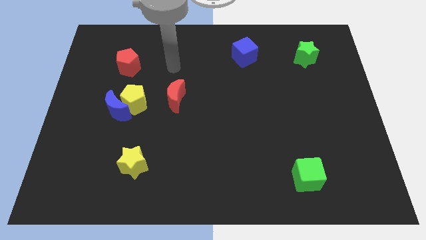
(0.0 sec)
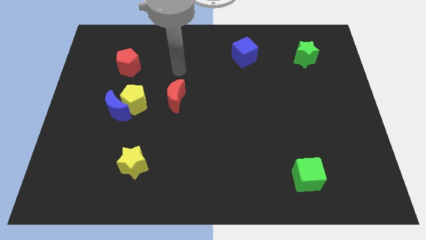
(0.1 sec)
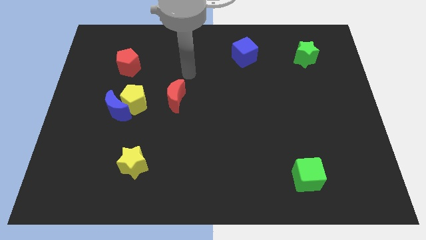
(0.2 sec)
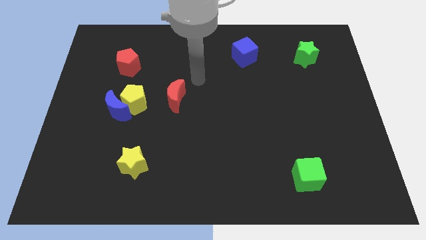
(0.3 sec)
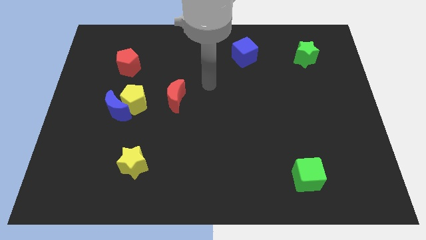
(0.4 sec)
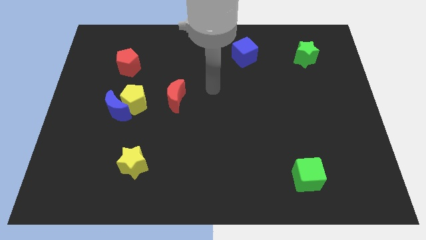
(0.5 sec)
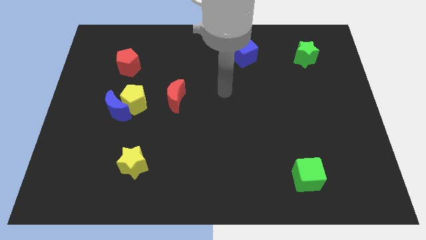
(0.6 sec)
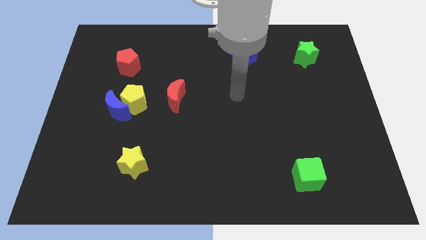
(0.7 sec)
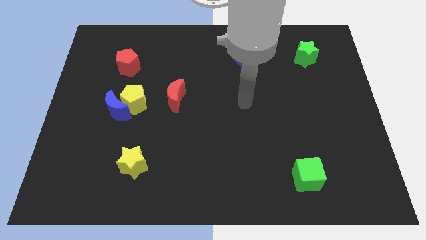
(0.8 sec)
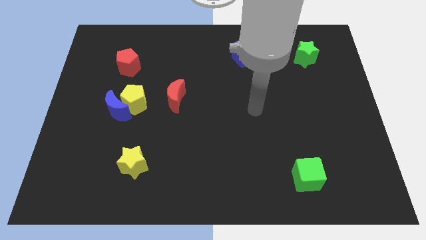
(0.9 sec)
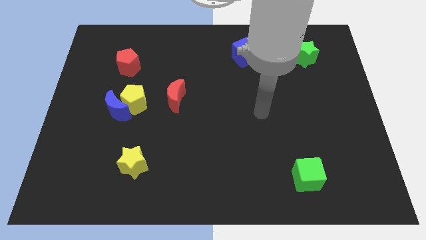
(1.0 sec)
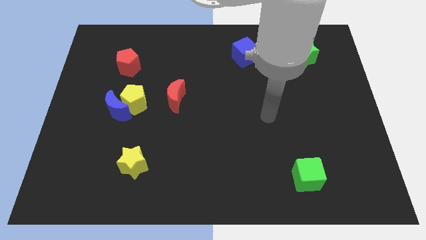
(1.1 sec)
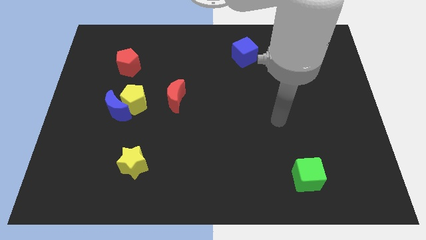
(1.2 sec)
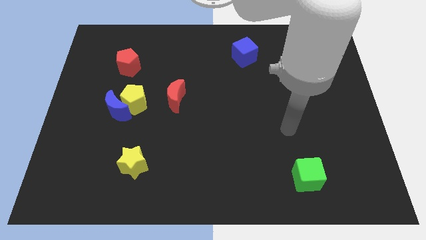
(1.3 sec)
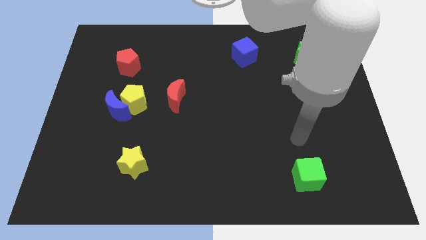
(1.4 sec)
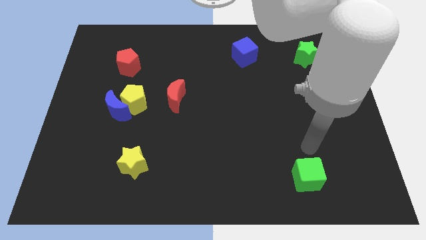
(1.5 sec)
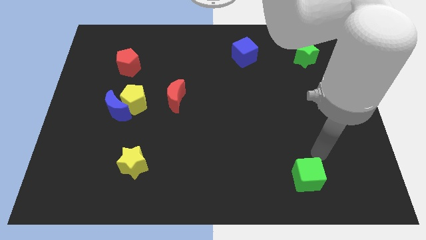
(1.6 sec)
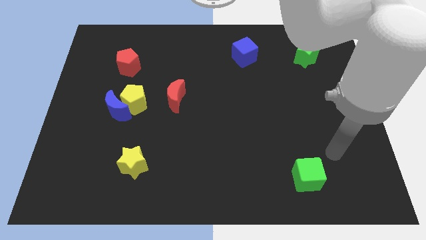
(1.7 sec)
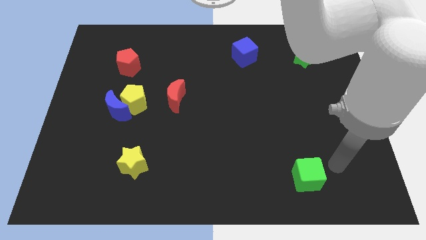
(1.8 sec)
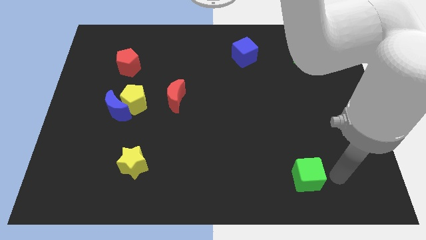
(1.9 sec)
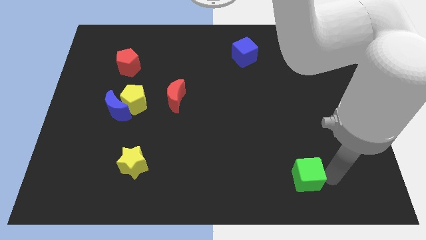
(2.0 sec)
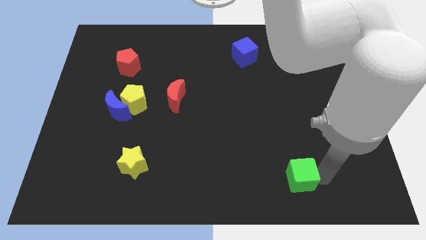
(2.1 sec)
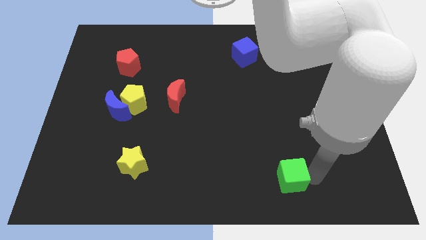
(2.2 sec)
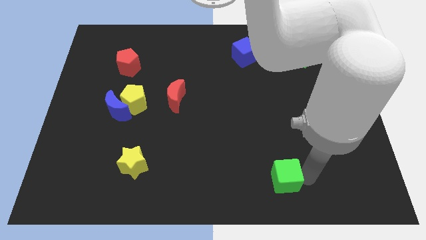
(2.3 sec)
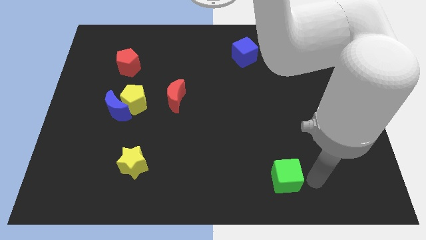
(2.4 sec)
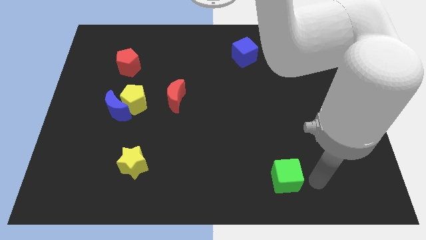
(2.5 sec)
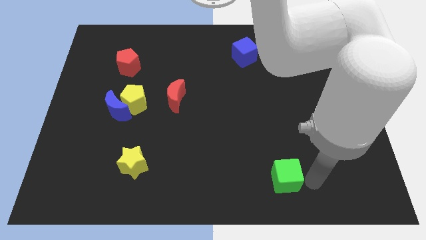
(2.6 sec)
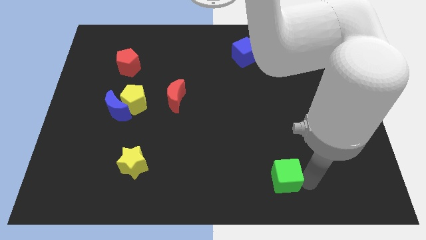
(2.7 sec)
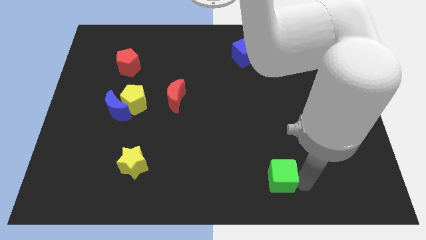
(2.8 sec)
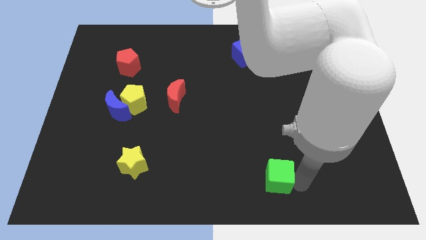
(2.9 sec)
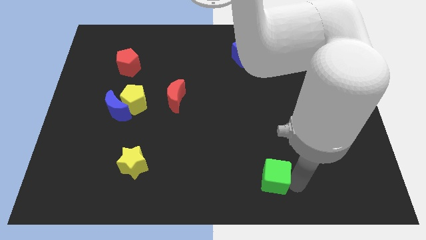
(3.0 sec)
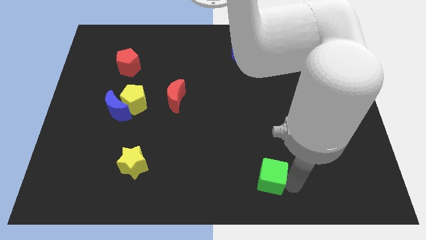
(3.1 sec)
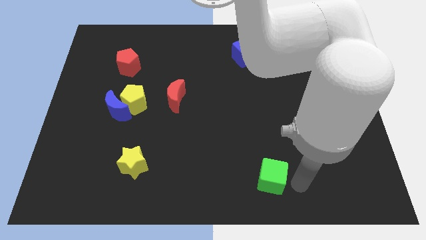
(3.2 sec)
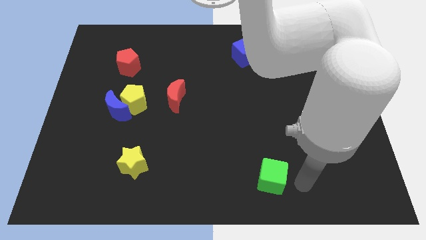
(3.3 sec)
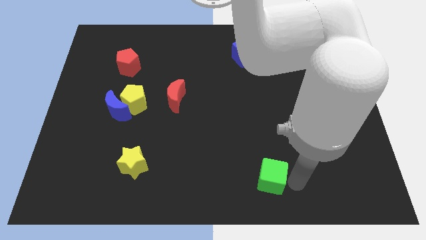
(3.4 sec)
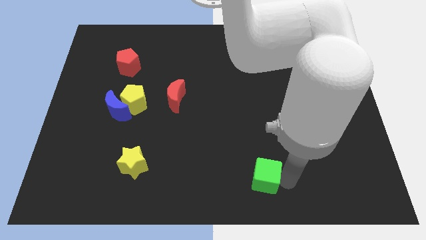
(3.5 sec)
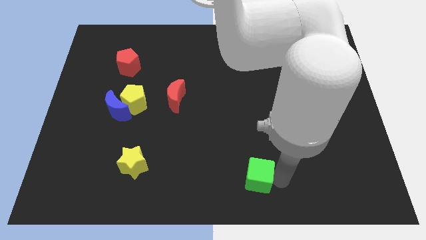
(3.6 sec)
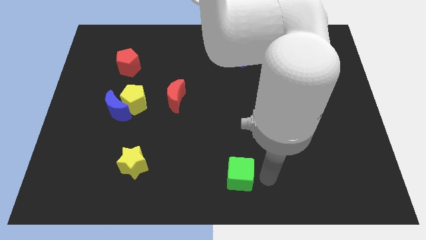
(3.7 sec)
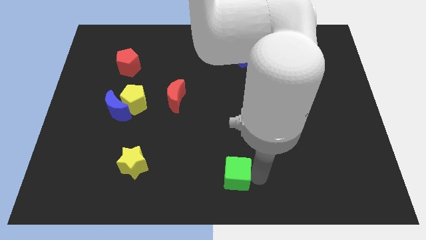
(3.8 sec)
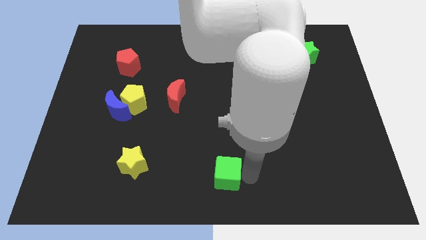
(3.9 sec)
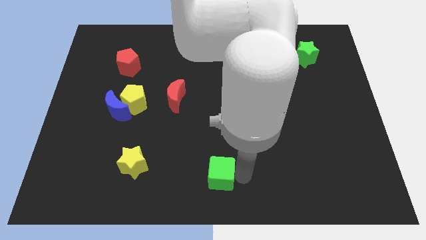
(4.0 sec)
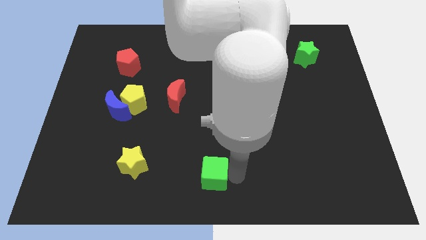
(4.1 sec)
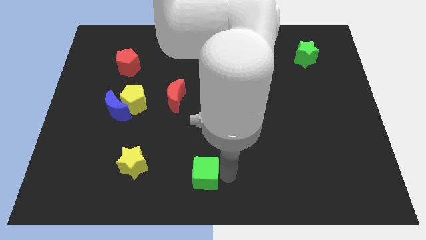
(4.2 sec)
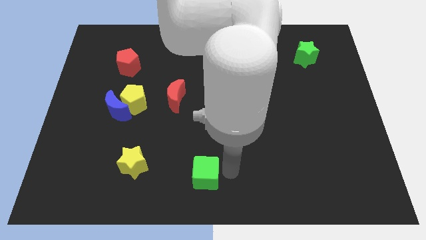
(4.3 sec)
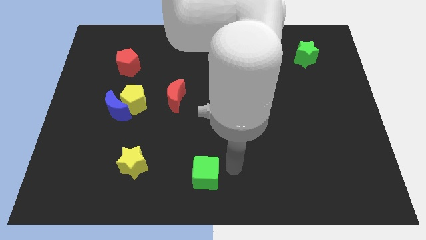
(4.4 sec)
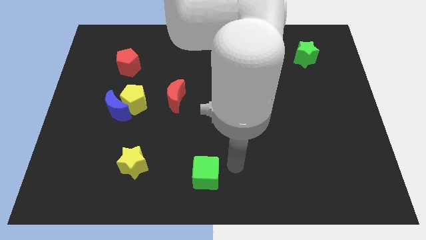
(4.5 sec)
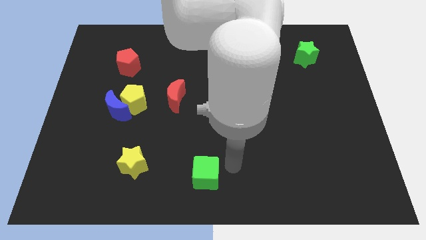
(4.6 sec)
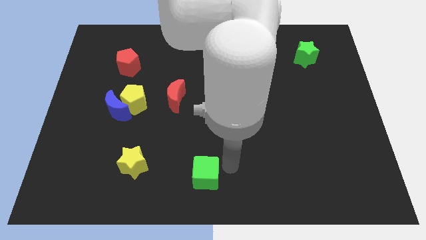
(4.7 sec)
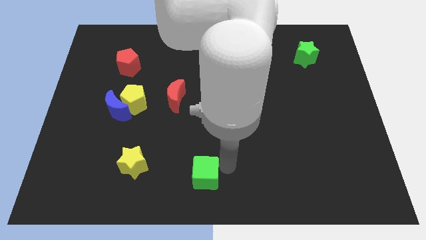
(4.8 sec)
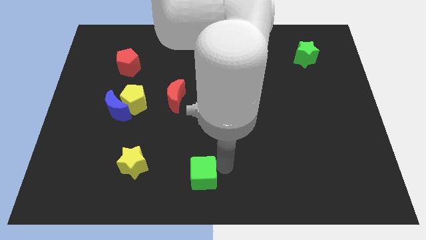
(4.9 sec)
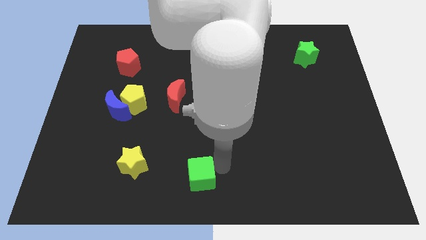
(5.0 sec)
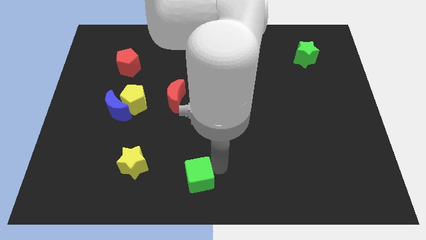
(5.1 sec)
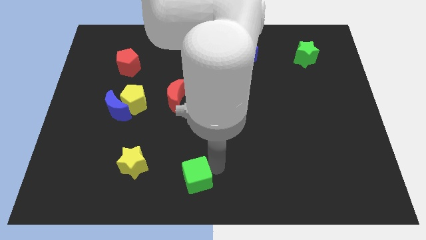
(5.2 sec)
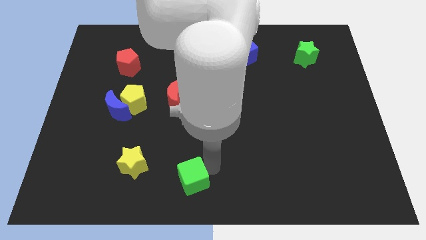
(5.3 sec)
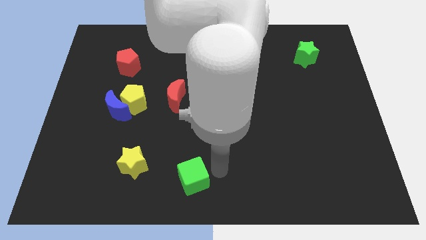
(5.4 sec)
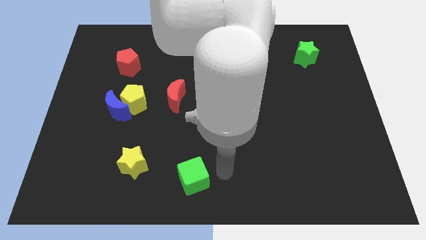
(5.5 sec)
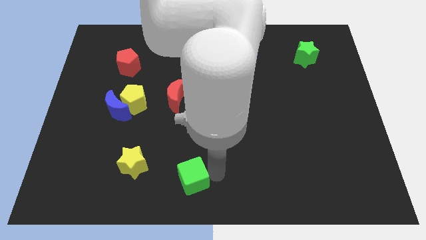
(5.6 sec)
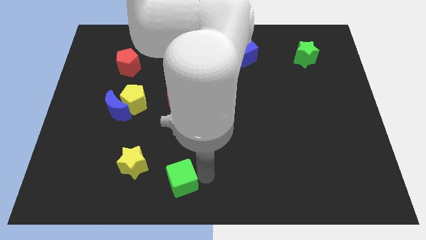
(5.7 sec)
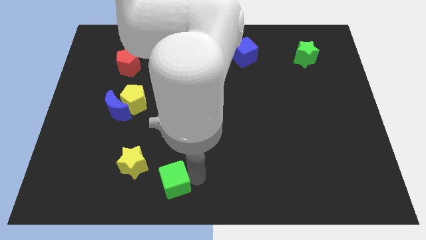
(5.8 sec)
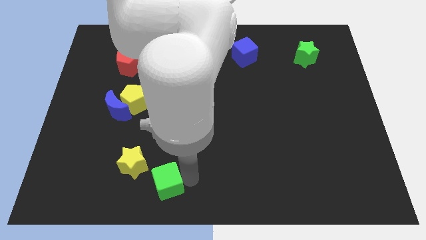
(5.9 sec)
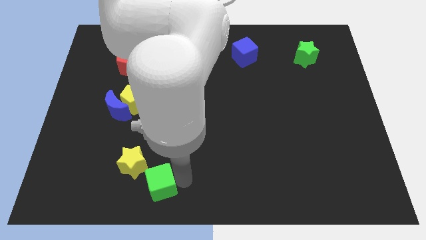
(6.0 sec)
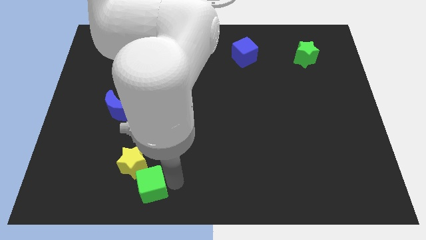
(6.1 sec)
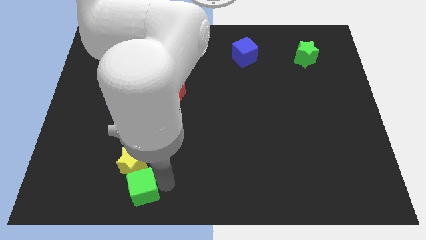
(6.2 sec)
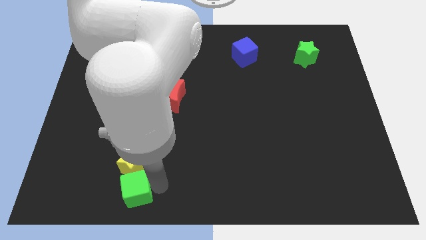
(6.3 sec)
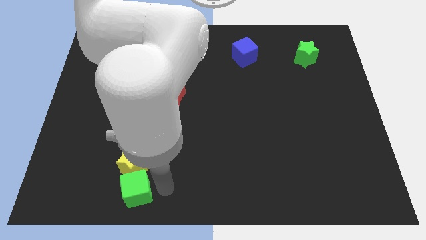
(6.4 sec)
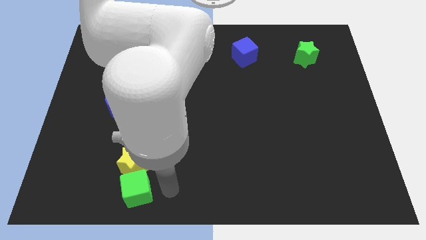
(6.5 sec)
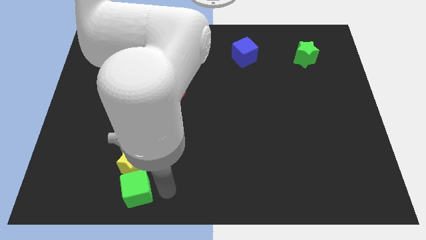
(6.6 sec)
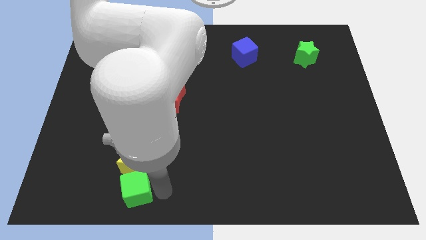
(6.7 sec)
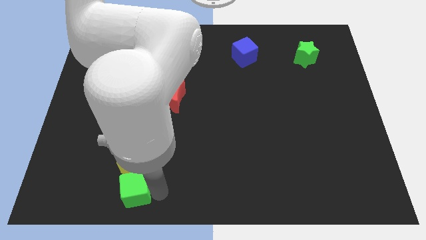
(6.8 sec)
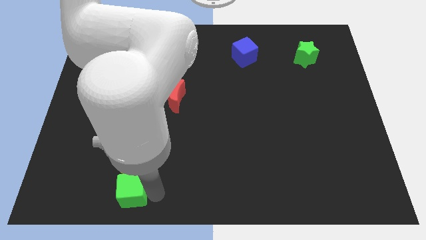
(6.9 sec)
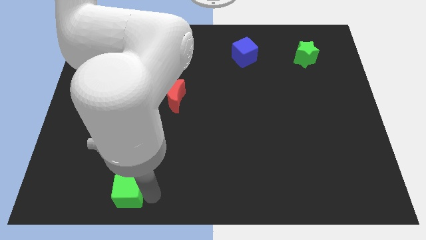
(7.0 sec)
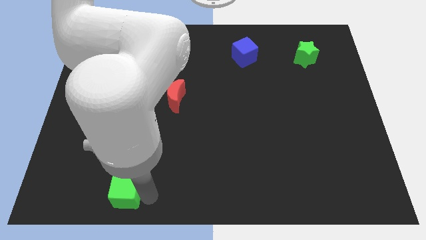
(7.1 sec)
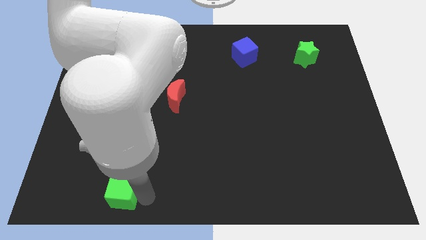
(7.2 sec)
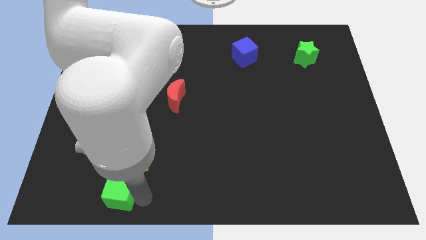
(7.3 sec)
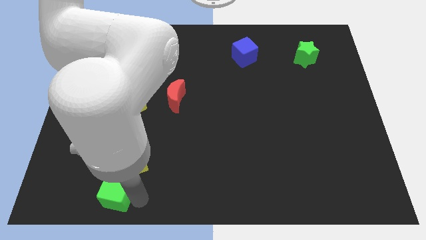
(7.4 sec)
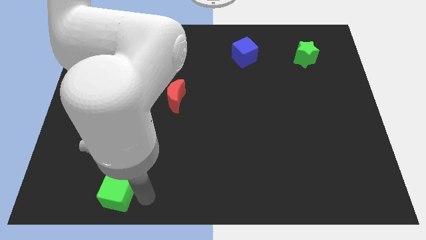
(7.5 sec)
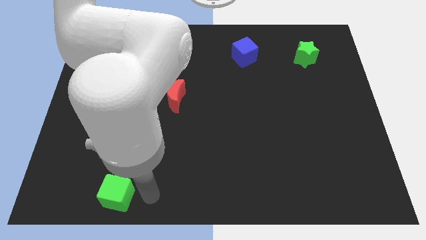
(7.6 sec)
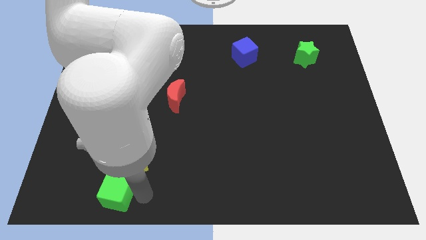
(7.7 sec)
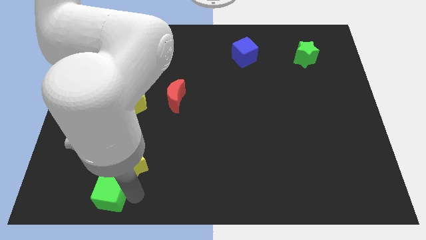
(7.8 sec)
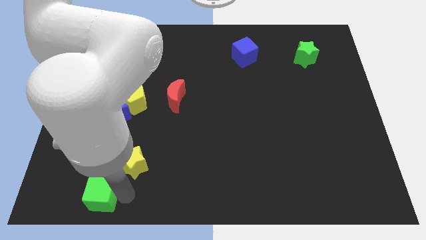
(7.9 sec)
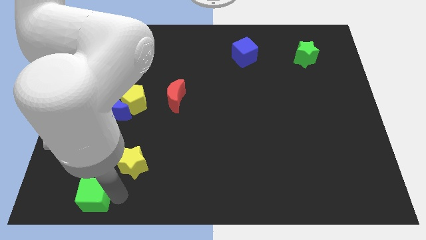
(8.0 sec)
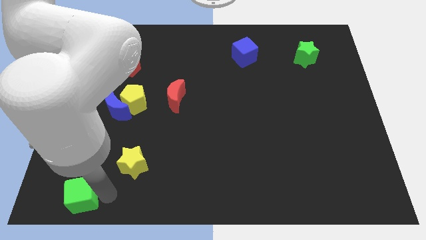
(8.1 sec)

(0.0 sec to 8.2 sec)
slide the green cube to the lower left corner
